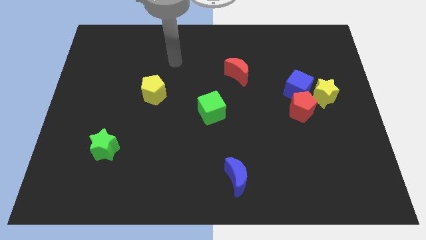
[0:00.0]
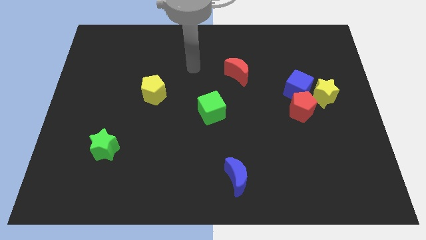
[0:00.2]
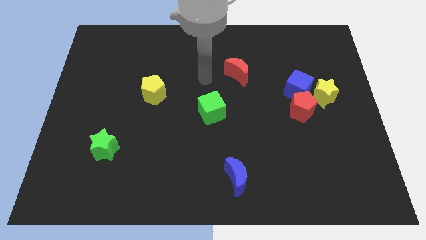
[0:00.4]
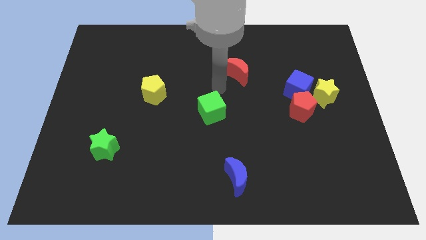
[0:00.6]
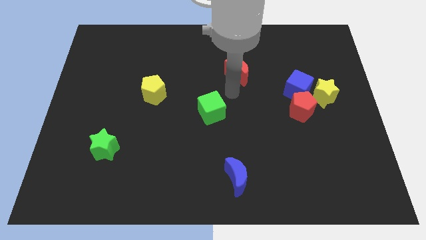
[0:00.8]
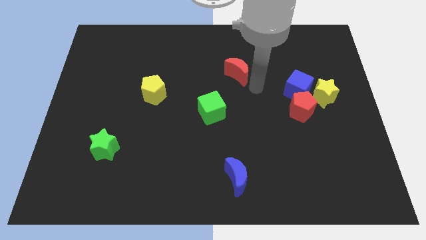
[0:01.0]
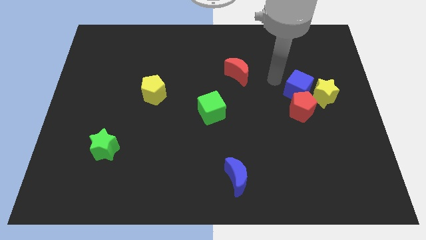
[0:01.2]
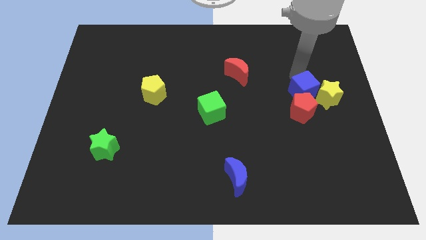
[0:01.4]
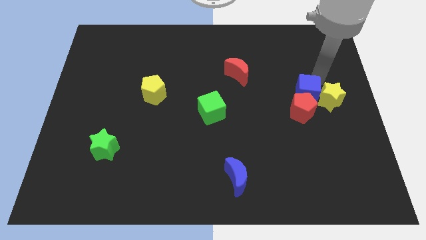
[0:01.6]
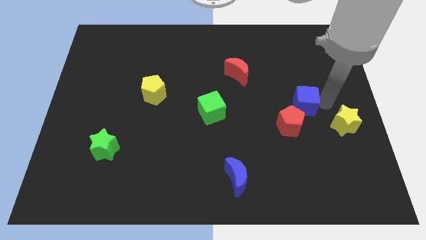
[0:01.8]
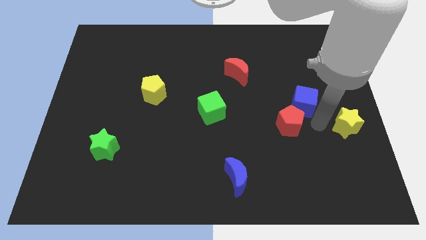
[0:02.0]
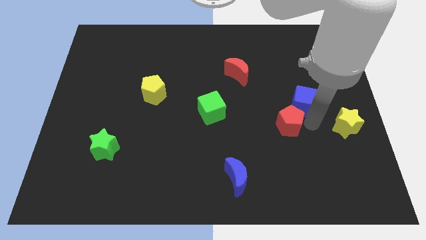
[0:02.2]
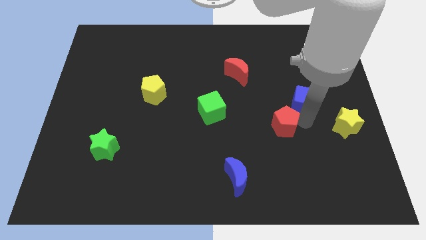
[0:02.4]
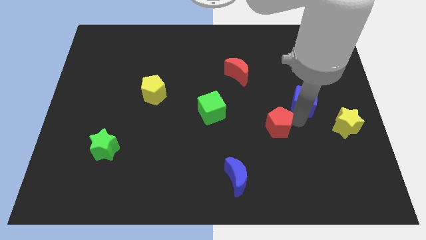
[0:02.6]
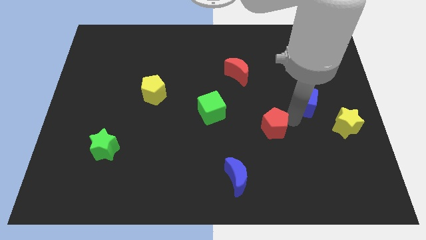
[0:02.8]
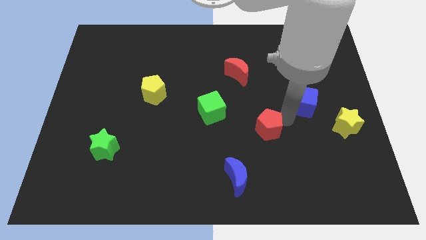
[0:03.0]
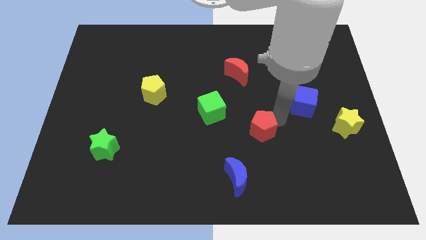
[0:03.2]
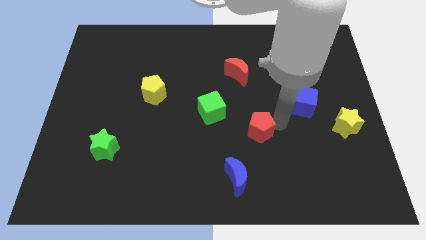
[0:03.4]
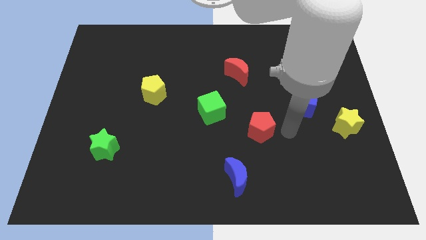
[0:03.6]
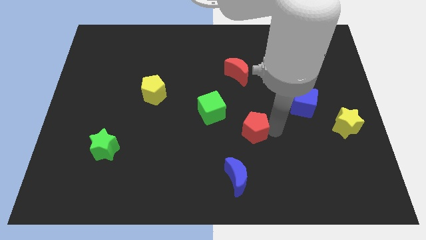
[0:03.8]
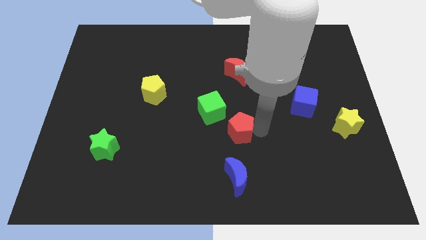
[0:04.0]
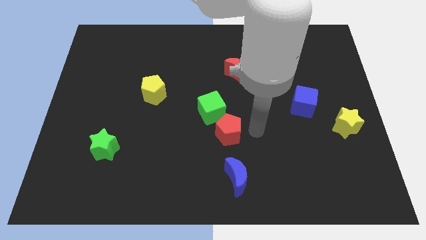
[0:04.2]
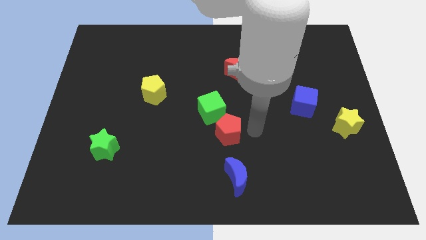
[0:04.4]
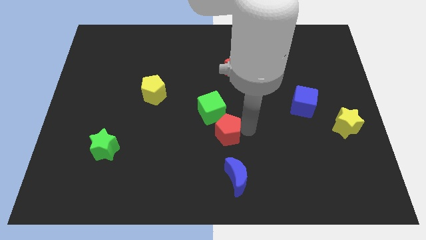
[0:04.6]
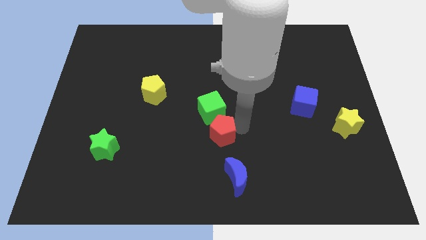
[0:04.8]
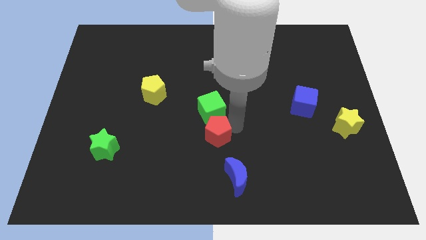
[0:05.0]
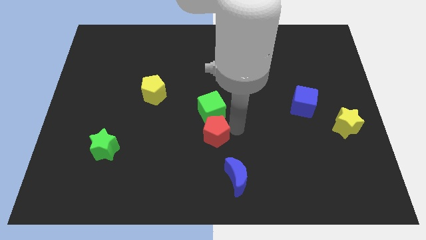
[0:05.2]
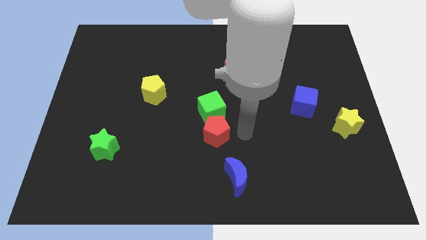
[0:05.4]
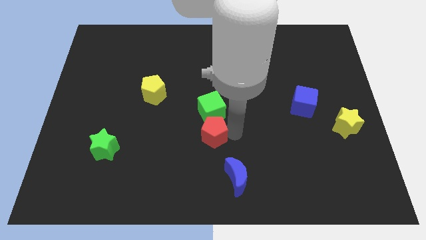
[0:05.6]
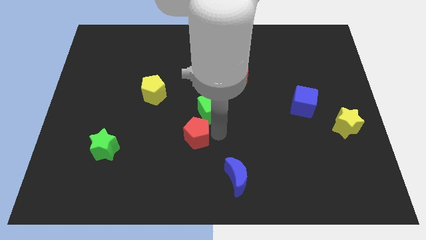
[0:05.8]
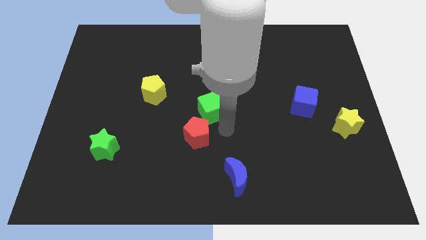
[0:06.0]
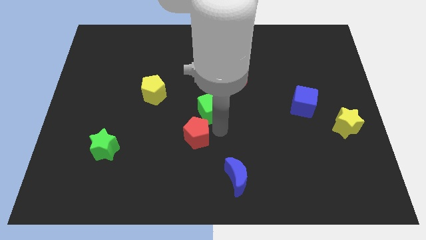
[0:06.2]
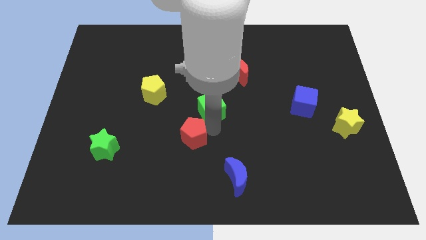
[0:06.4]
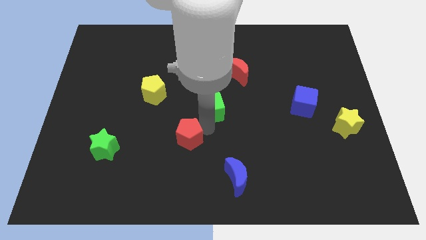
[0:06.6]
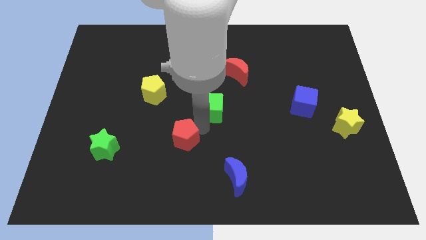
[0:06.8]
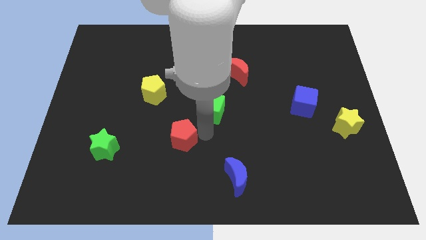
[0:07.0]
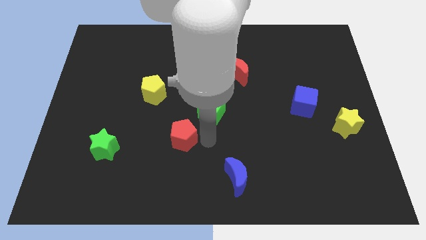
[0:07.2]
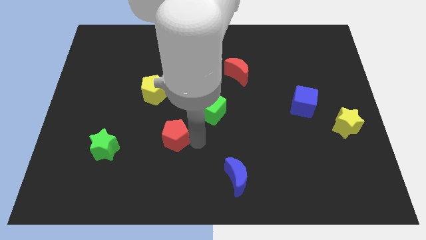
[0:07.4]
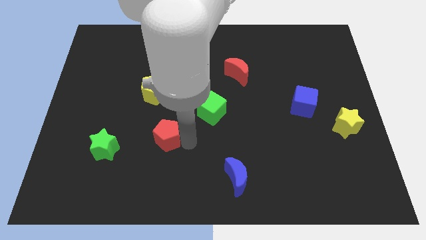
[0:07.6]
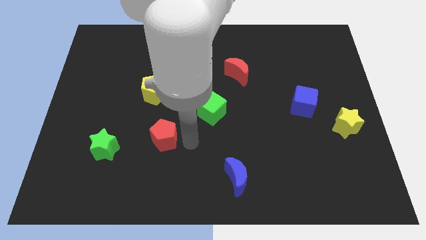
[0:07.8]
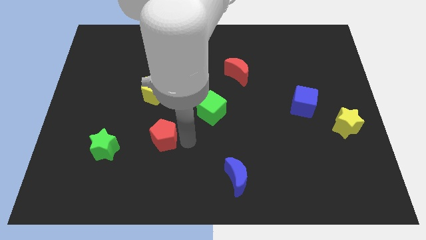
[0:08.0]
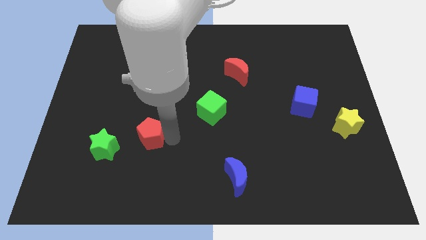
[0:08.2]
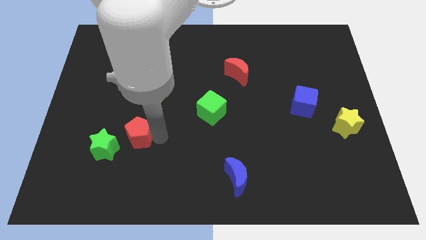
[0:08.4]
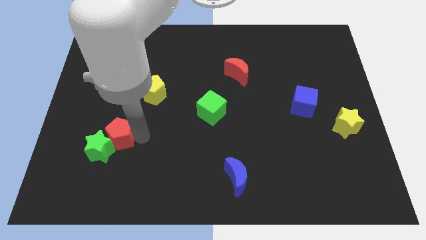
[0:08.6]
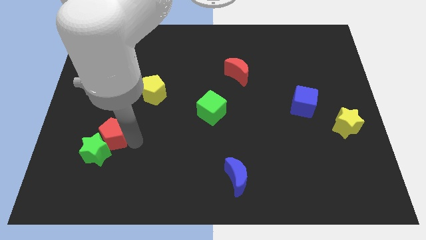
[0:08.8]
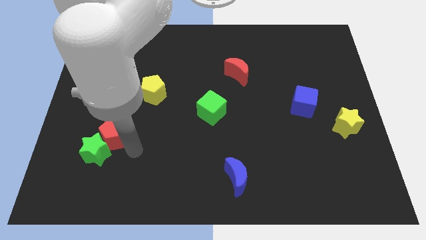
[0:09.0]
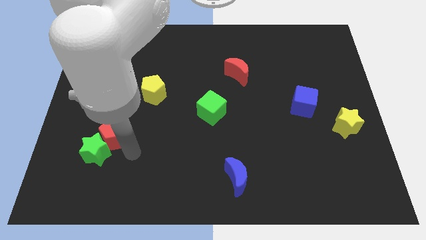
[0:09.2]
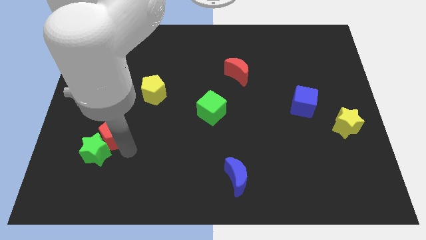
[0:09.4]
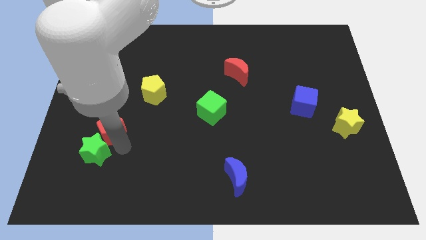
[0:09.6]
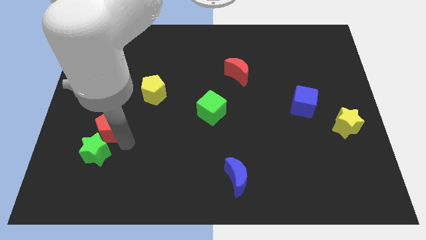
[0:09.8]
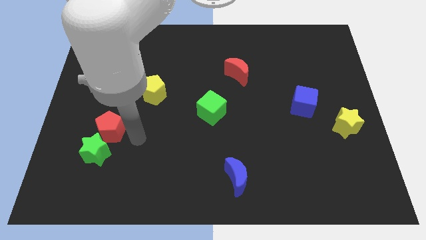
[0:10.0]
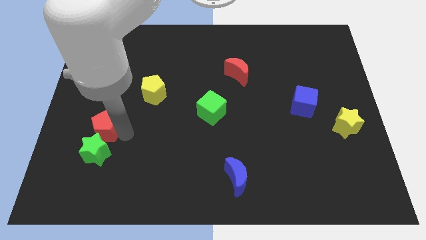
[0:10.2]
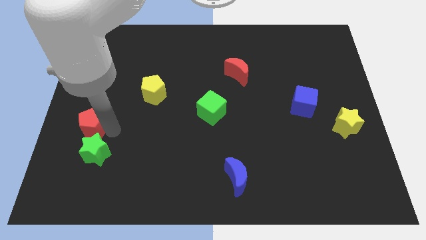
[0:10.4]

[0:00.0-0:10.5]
move the red pentagon to the left side

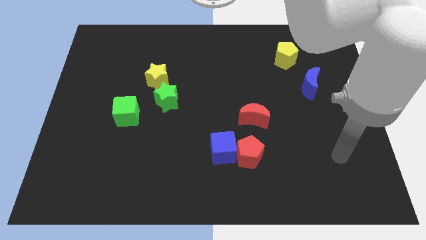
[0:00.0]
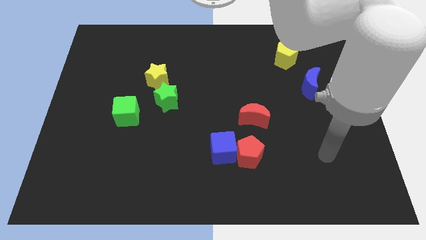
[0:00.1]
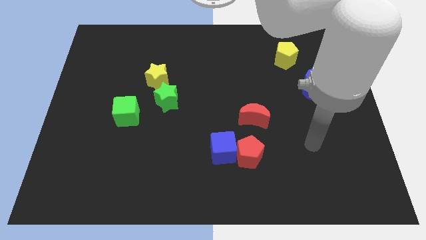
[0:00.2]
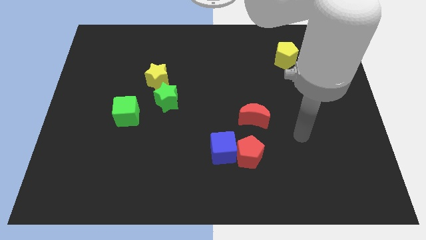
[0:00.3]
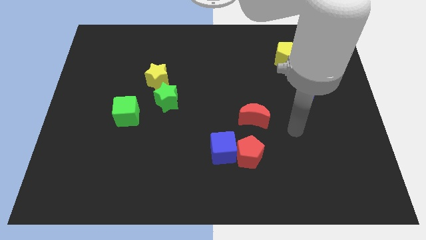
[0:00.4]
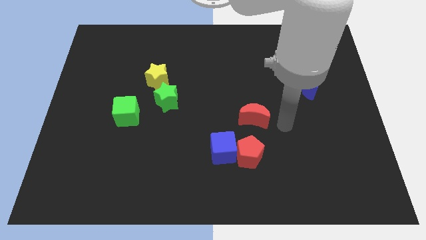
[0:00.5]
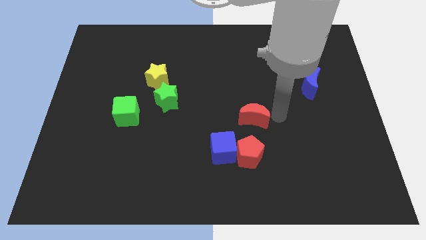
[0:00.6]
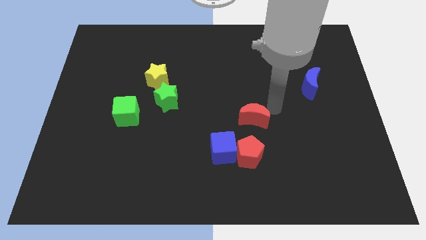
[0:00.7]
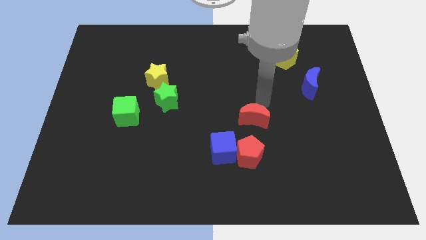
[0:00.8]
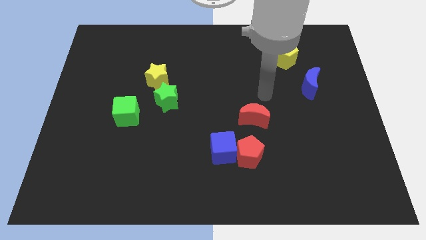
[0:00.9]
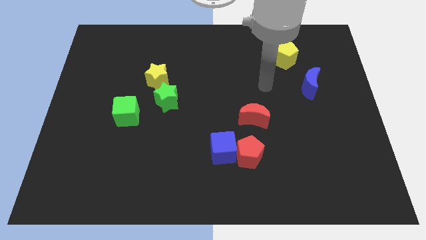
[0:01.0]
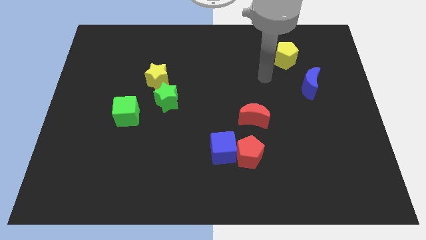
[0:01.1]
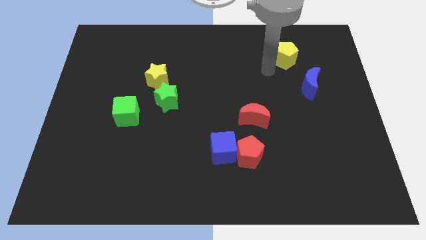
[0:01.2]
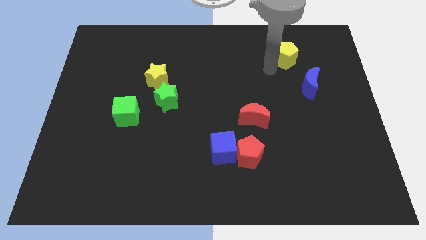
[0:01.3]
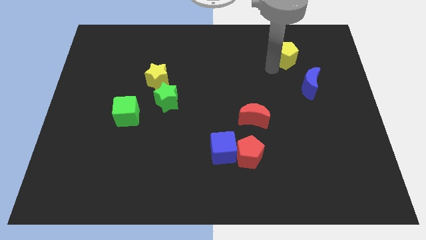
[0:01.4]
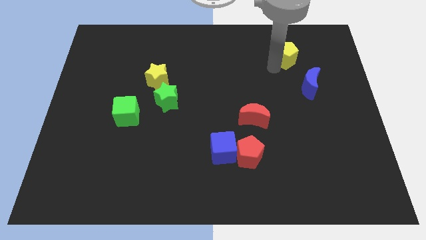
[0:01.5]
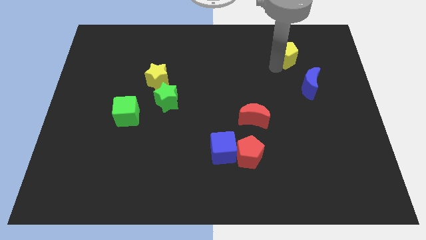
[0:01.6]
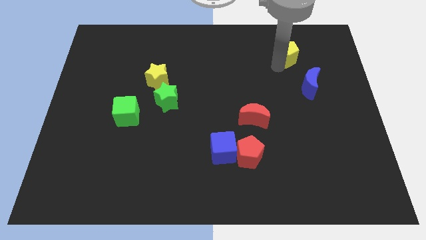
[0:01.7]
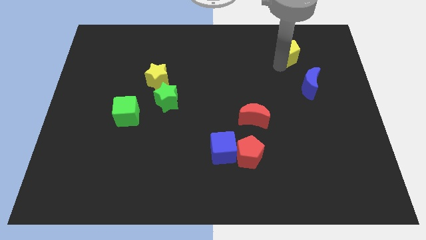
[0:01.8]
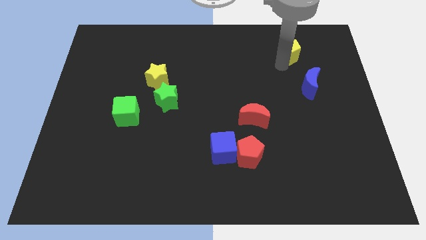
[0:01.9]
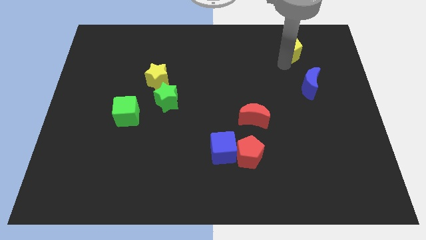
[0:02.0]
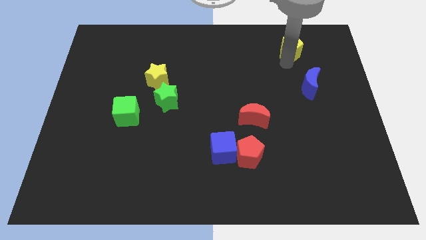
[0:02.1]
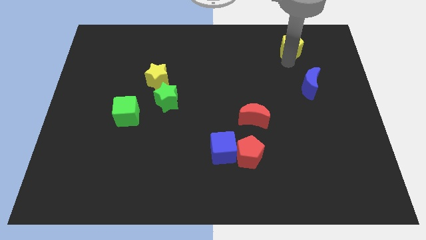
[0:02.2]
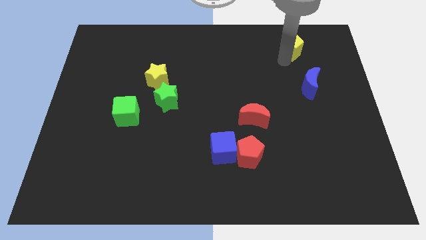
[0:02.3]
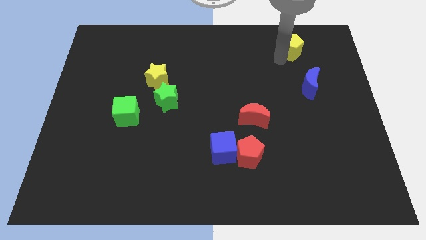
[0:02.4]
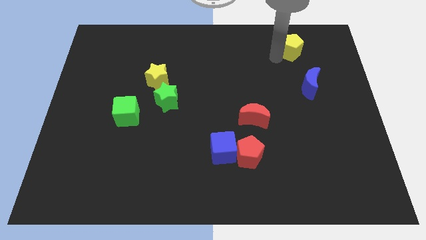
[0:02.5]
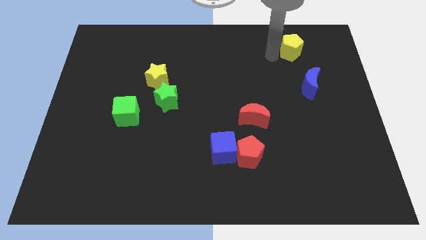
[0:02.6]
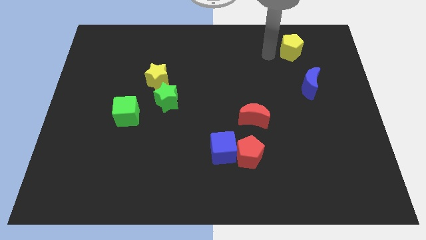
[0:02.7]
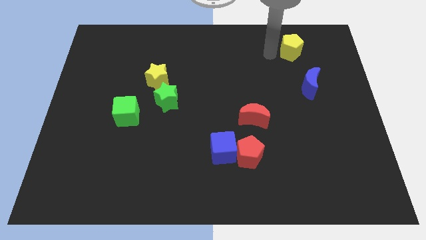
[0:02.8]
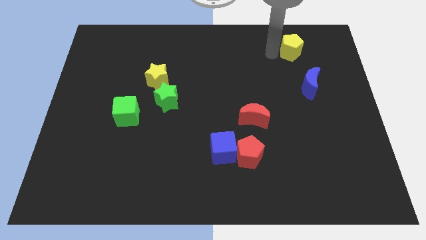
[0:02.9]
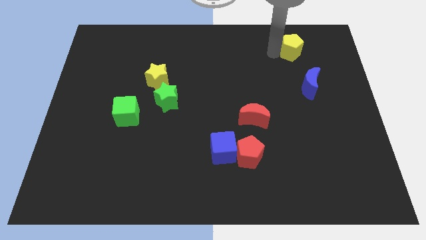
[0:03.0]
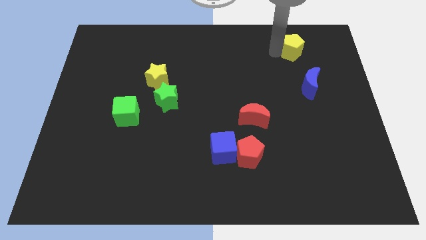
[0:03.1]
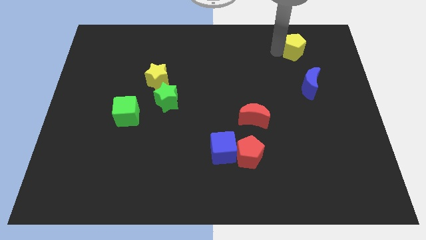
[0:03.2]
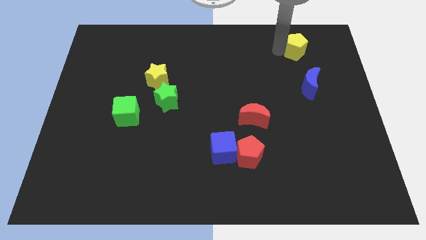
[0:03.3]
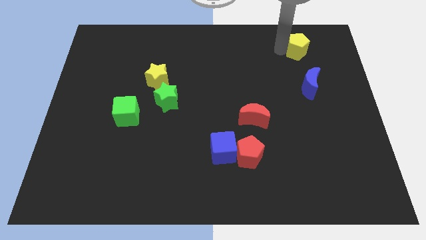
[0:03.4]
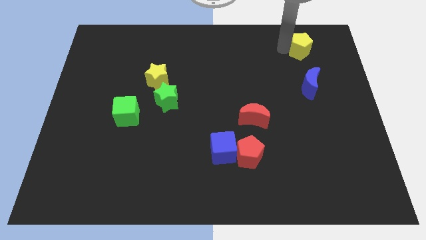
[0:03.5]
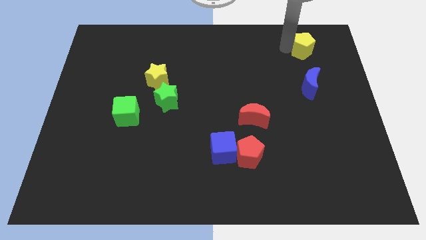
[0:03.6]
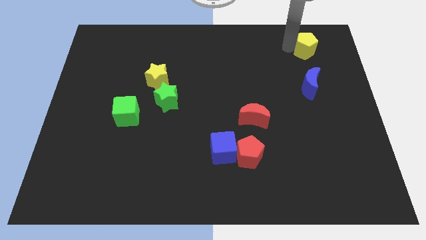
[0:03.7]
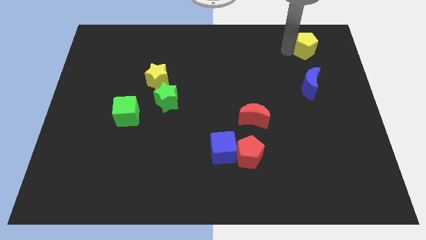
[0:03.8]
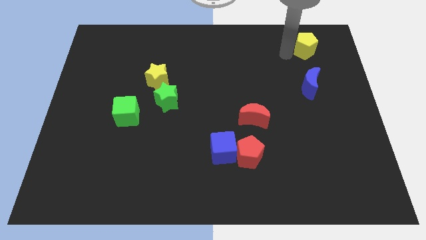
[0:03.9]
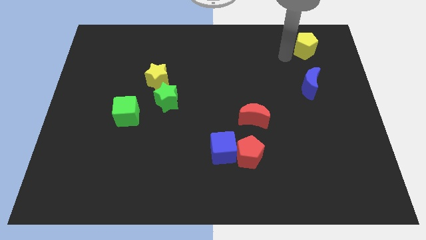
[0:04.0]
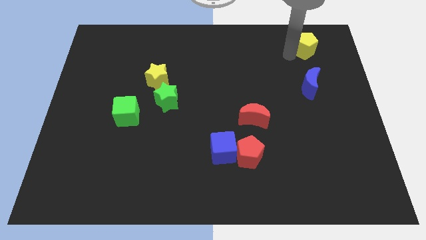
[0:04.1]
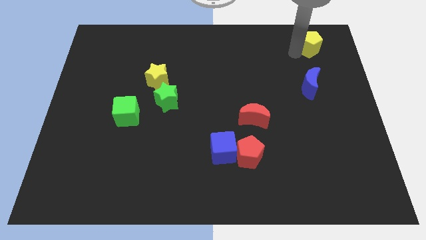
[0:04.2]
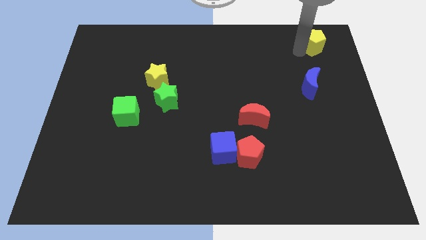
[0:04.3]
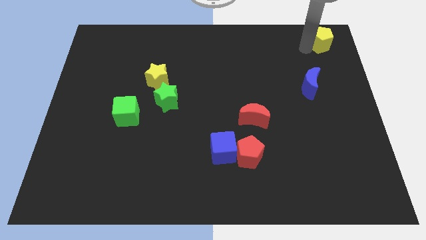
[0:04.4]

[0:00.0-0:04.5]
put the yellow pentagon to the top right
